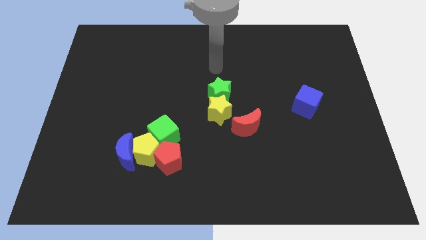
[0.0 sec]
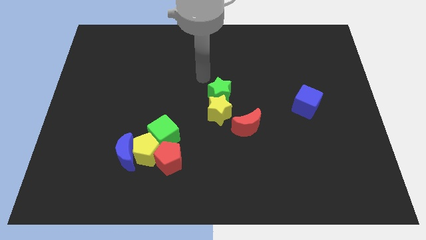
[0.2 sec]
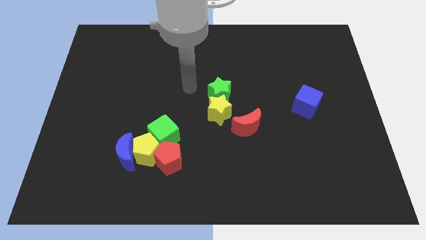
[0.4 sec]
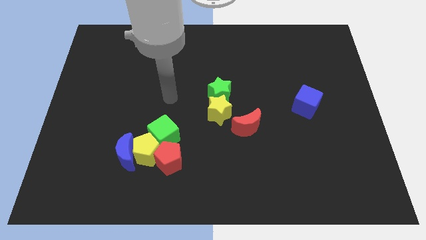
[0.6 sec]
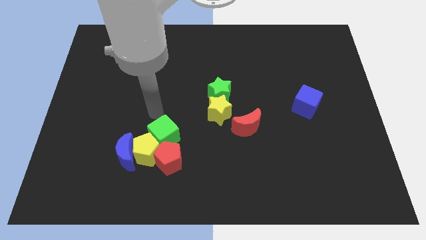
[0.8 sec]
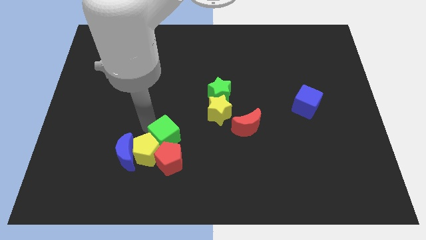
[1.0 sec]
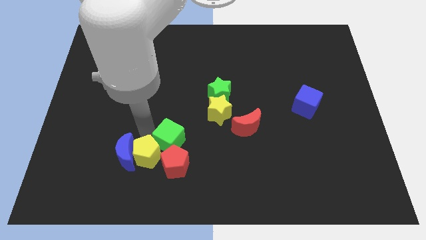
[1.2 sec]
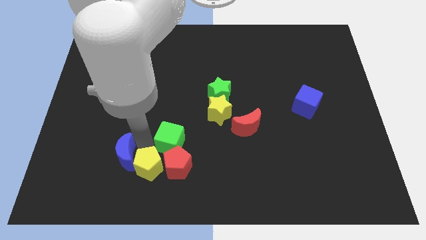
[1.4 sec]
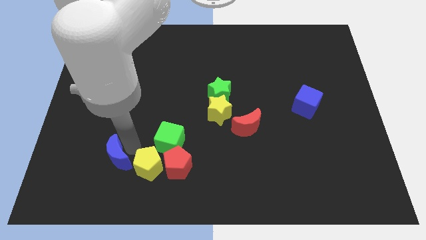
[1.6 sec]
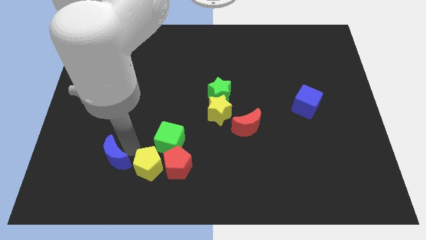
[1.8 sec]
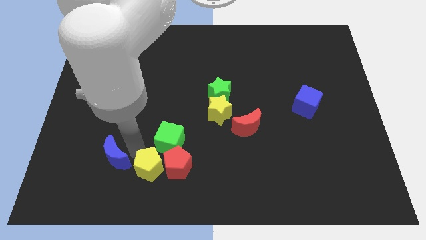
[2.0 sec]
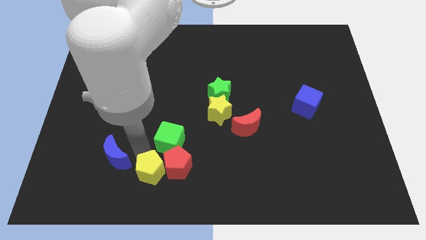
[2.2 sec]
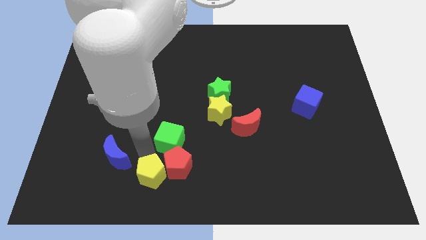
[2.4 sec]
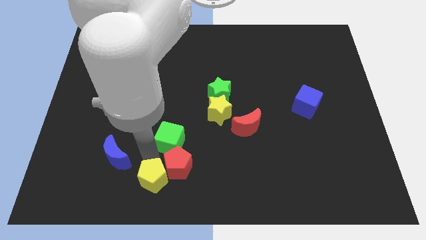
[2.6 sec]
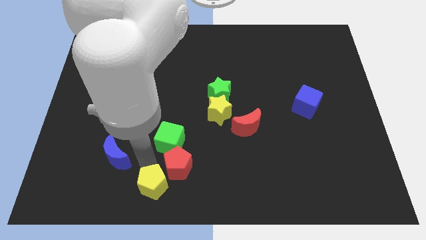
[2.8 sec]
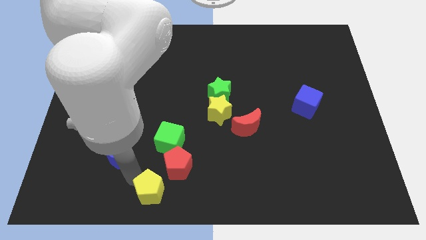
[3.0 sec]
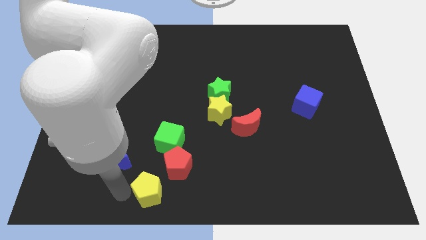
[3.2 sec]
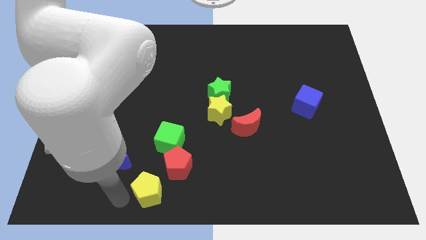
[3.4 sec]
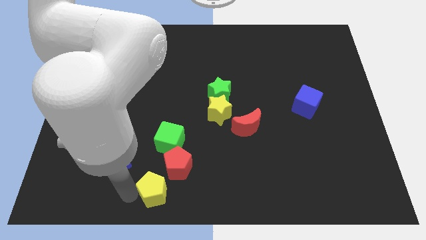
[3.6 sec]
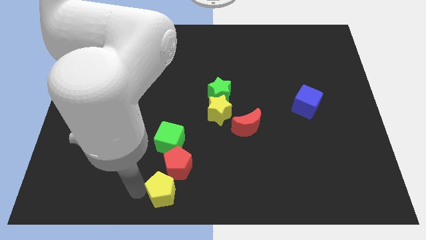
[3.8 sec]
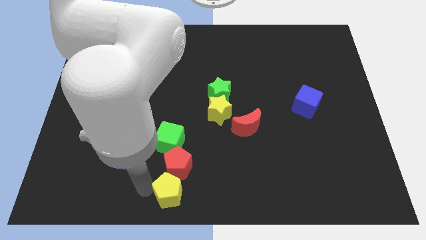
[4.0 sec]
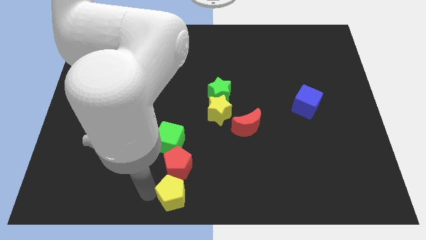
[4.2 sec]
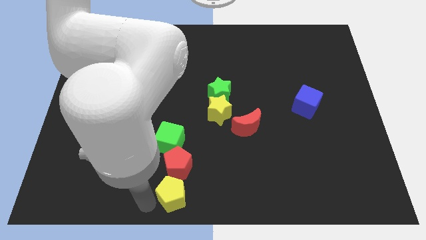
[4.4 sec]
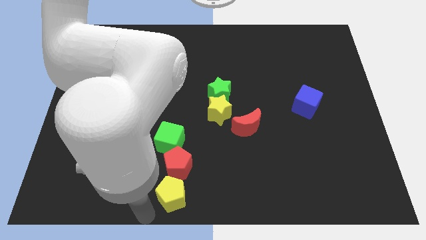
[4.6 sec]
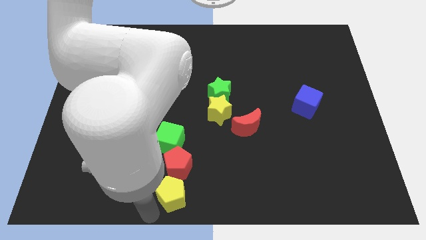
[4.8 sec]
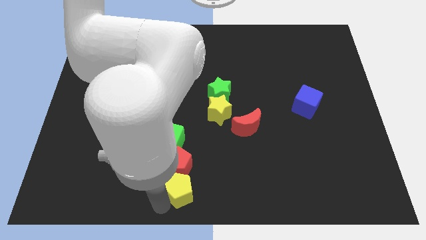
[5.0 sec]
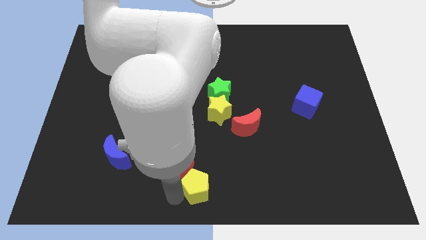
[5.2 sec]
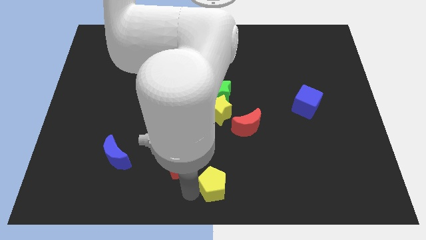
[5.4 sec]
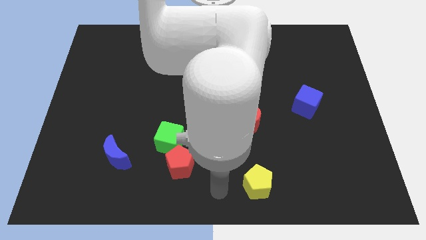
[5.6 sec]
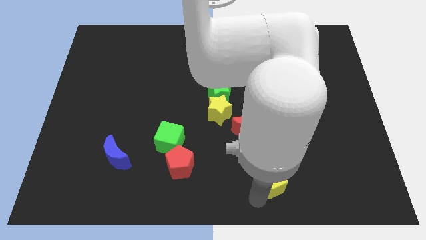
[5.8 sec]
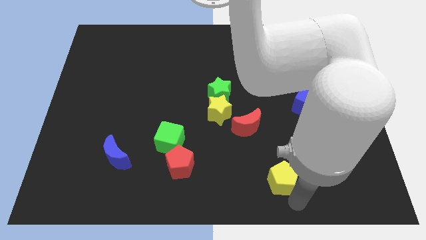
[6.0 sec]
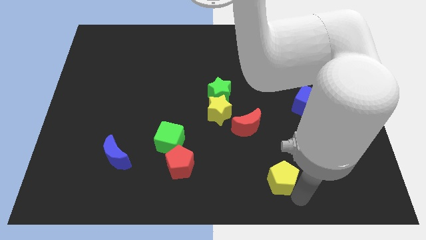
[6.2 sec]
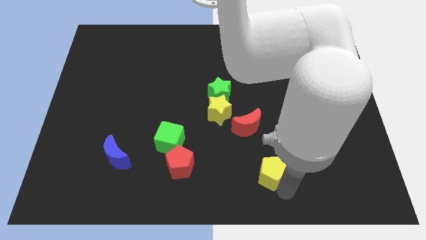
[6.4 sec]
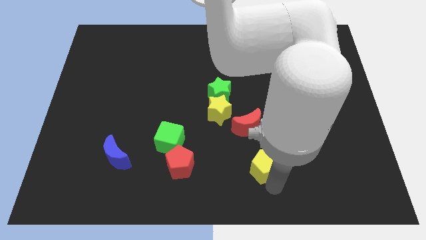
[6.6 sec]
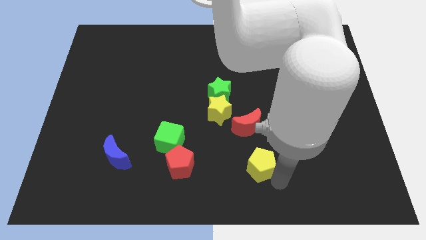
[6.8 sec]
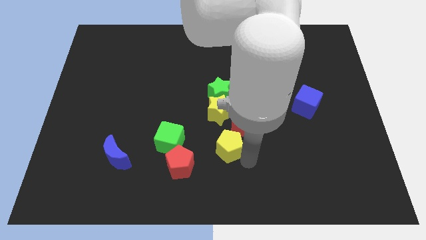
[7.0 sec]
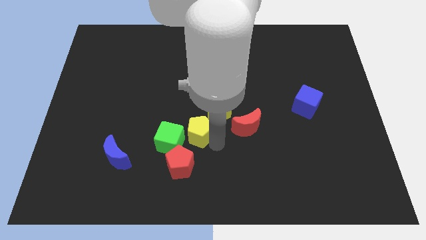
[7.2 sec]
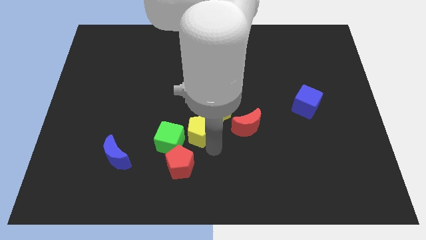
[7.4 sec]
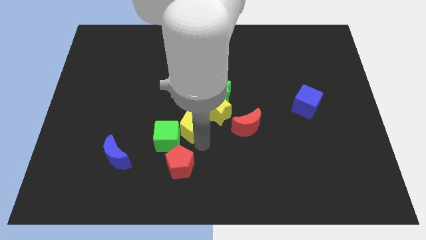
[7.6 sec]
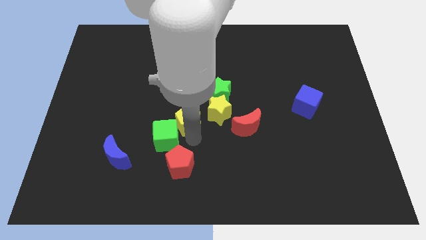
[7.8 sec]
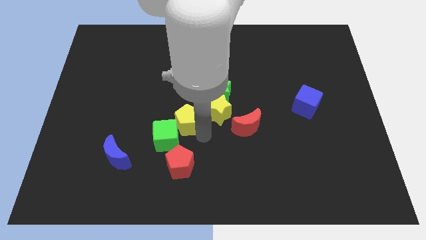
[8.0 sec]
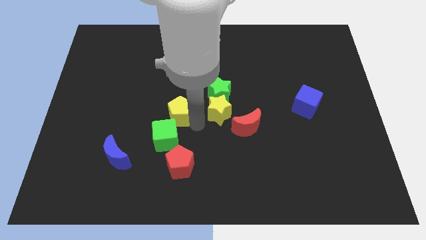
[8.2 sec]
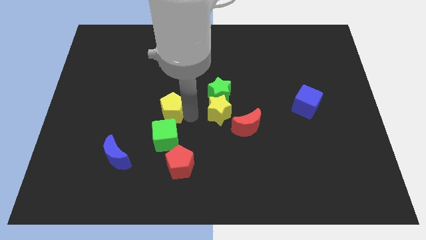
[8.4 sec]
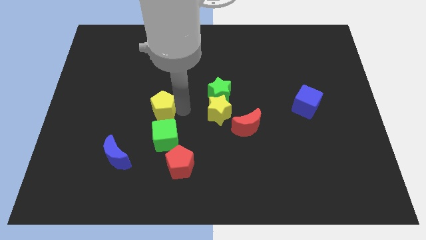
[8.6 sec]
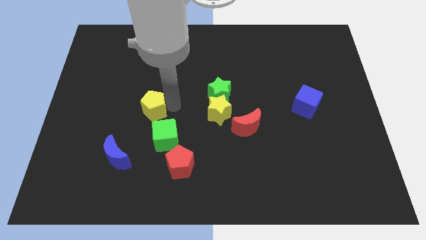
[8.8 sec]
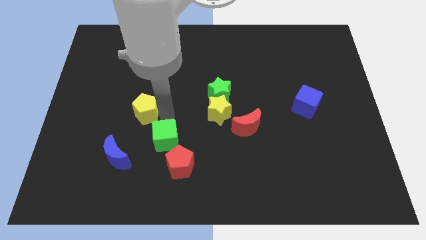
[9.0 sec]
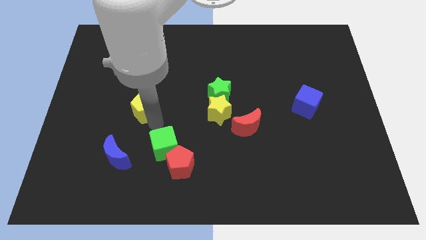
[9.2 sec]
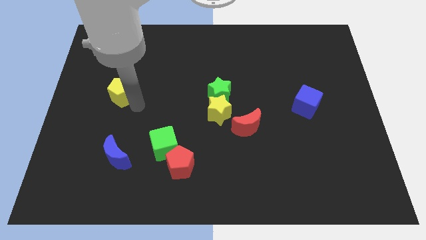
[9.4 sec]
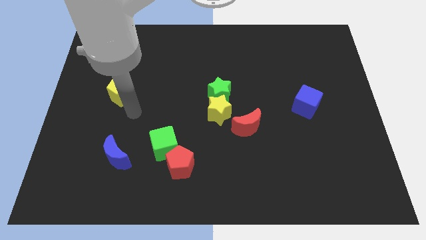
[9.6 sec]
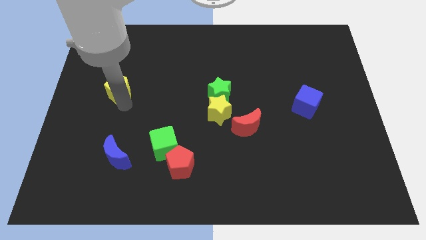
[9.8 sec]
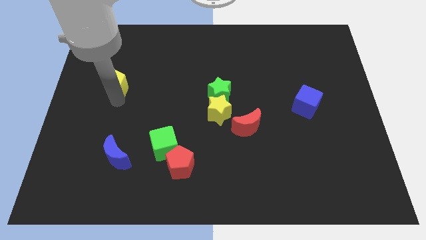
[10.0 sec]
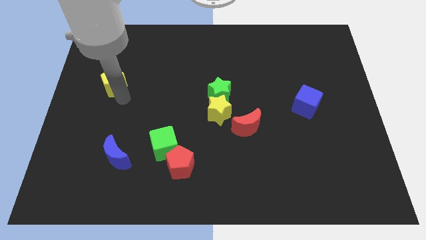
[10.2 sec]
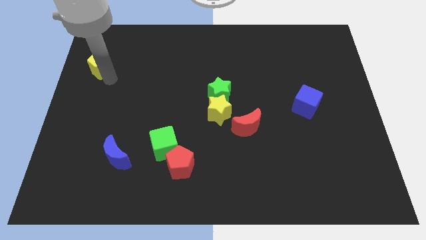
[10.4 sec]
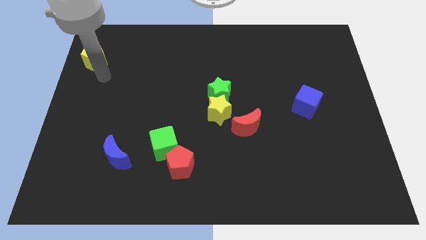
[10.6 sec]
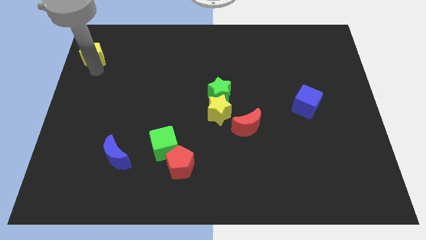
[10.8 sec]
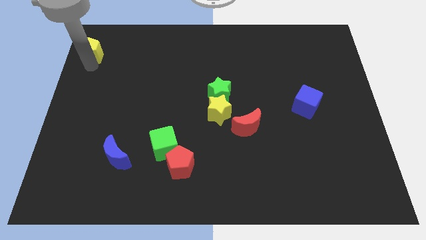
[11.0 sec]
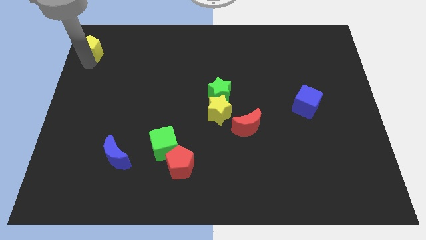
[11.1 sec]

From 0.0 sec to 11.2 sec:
push the yellow pentagon to the top left of the board
